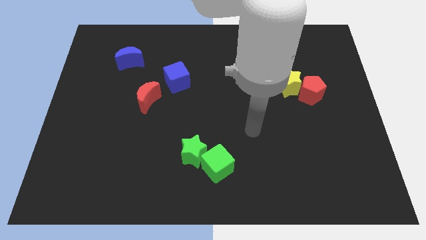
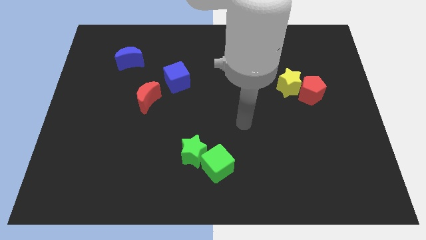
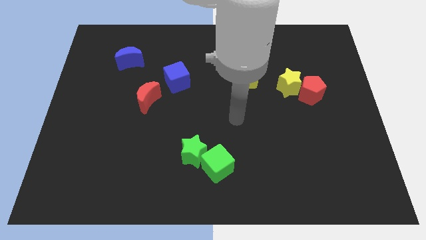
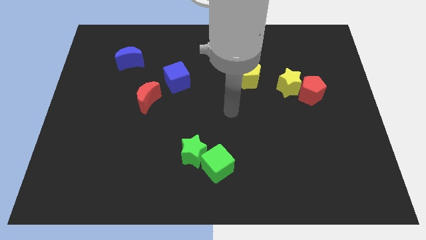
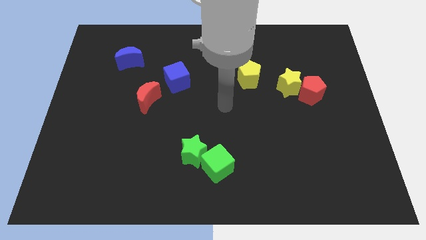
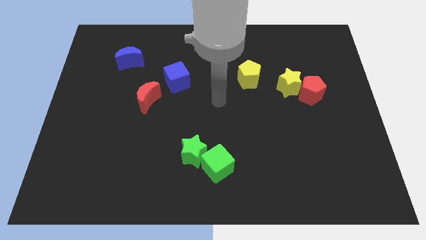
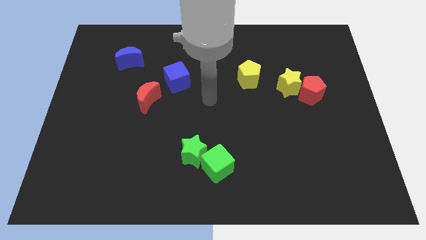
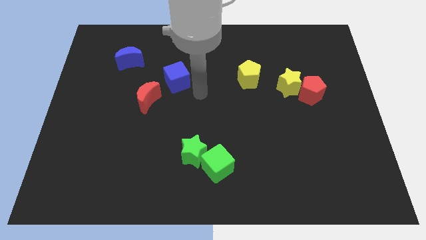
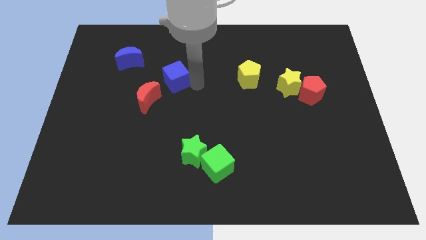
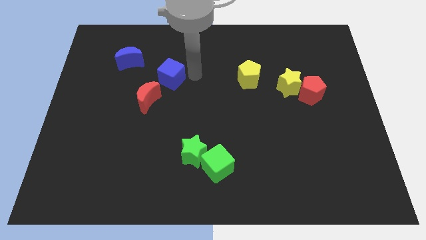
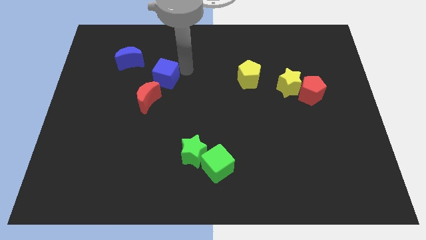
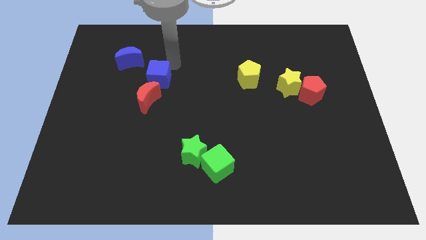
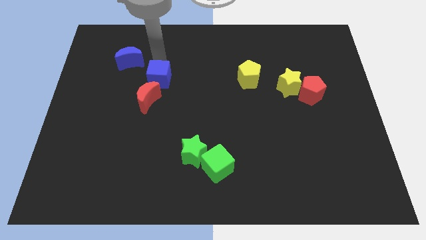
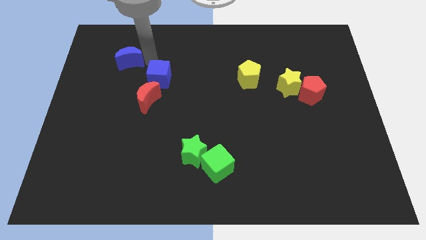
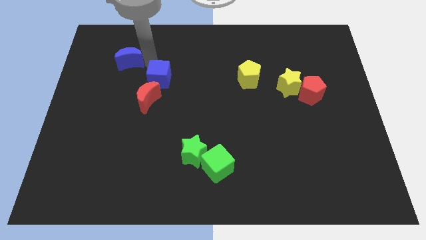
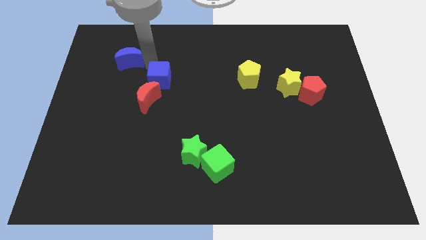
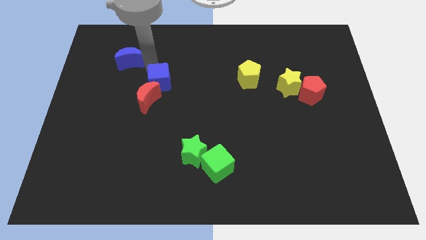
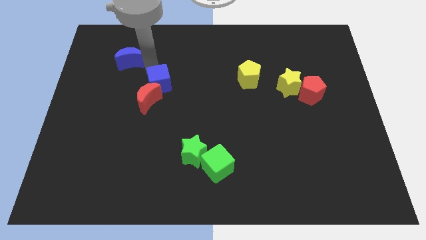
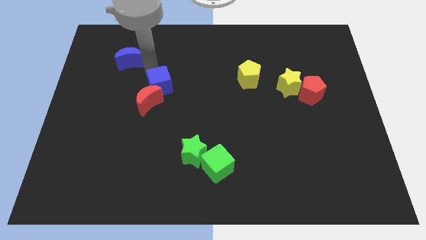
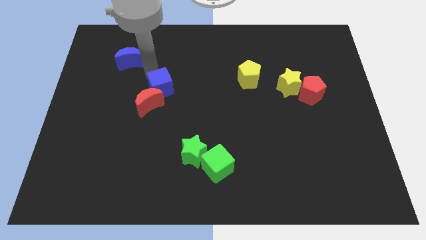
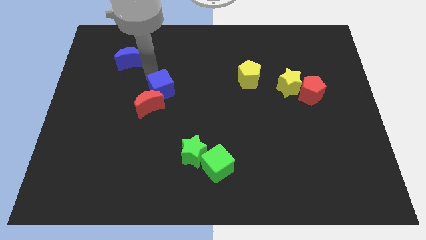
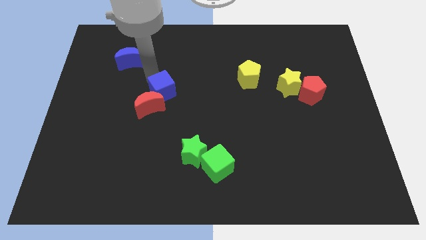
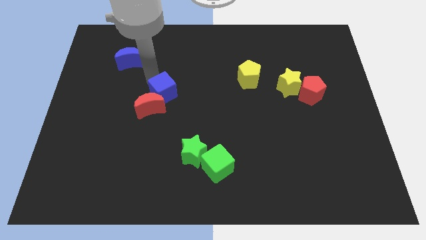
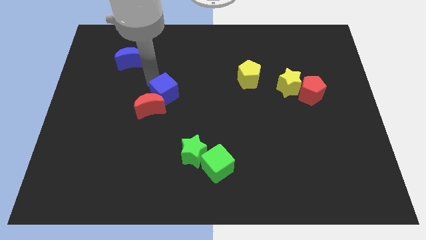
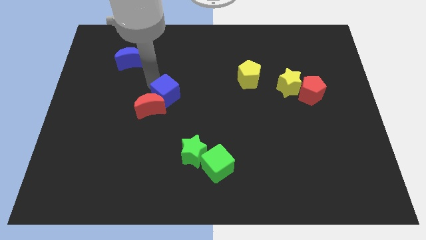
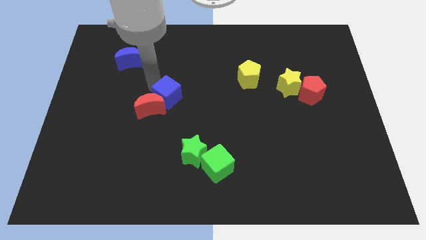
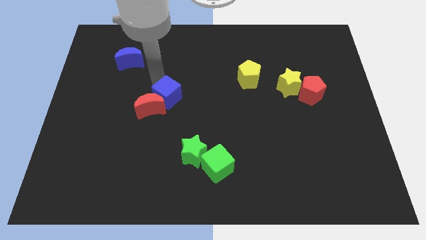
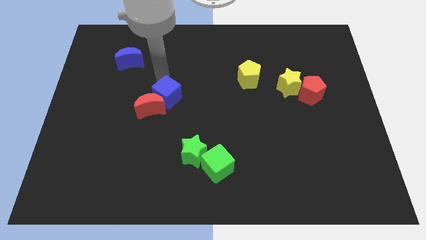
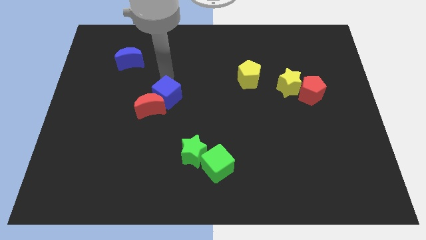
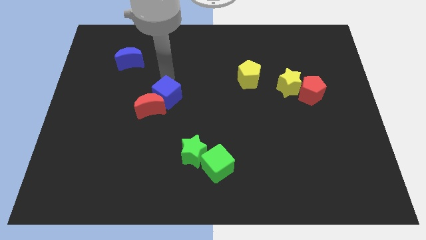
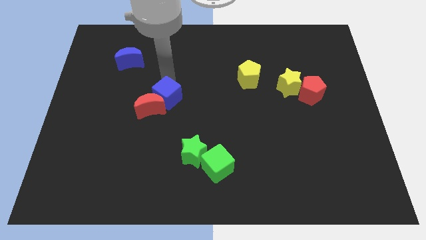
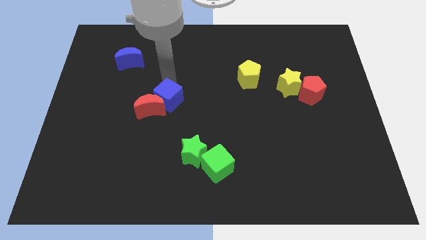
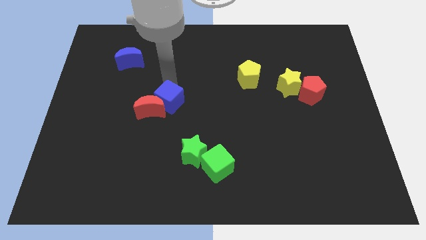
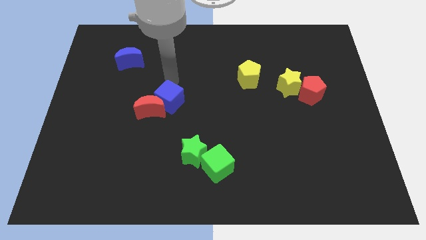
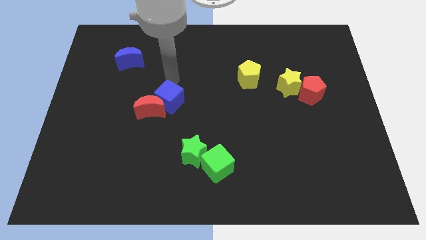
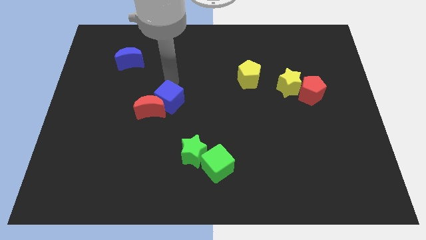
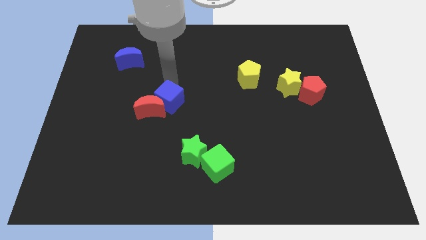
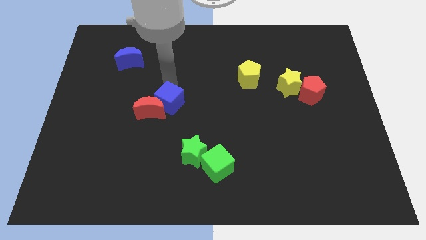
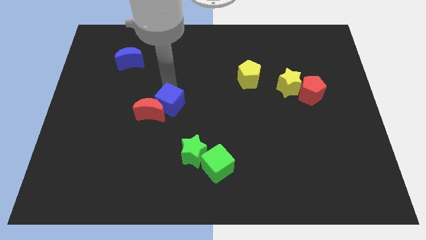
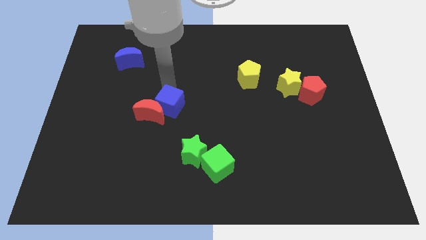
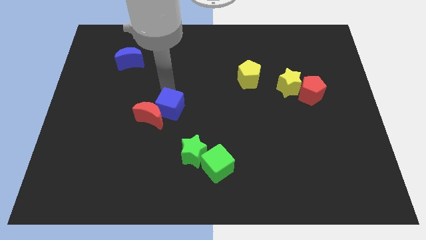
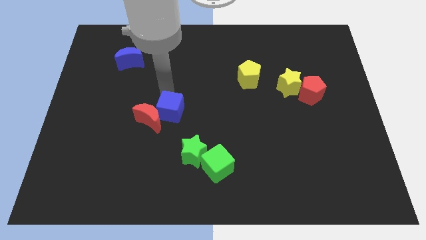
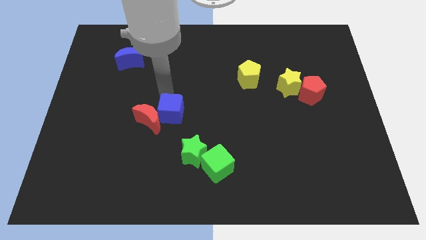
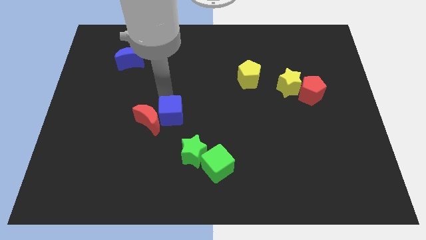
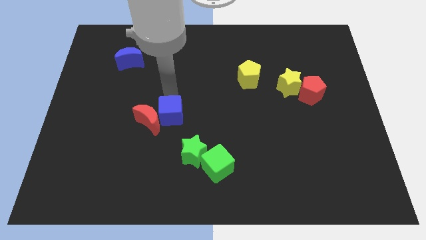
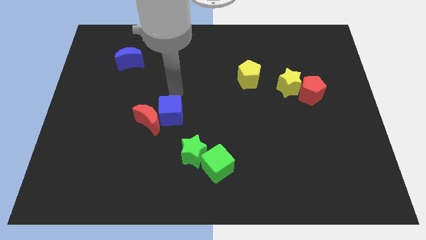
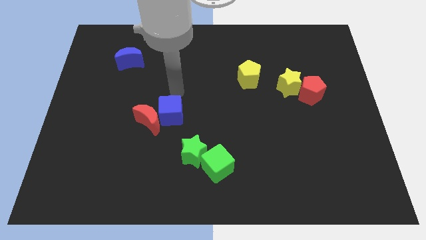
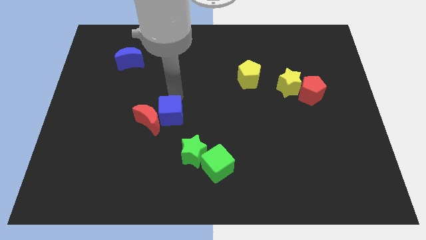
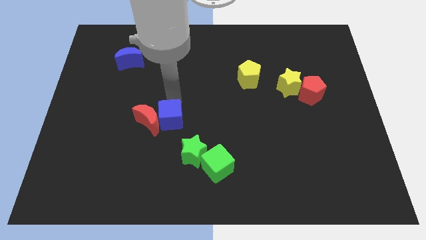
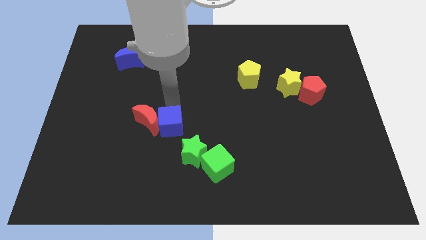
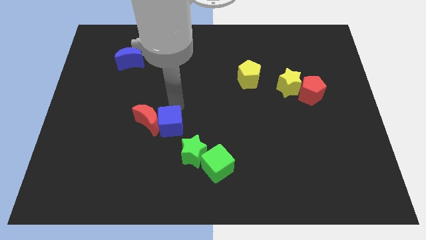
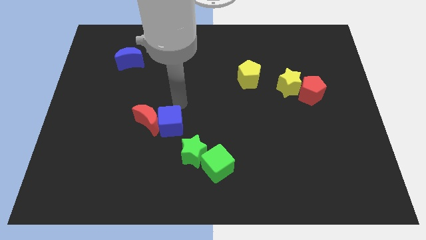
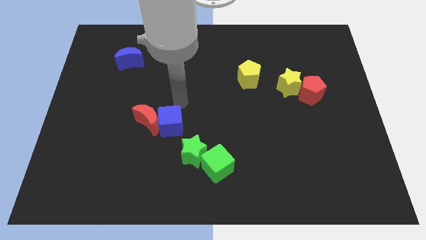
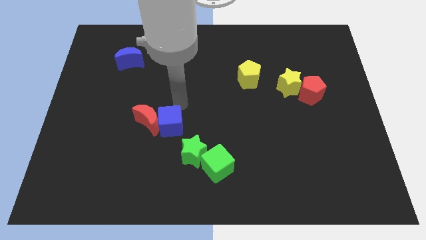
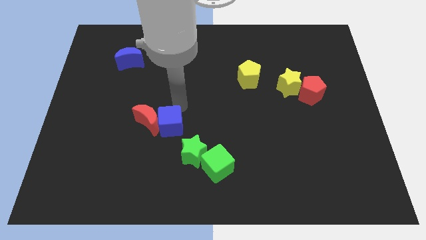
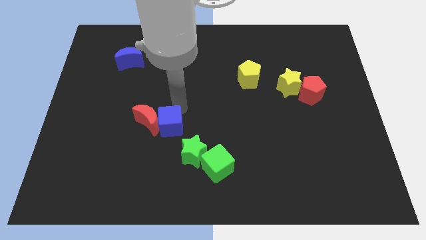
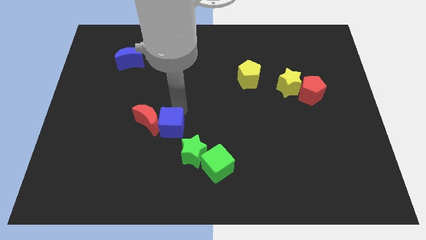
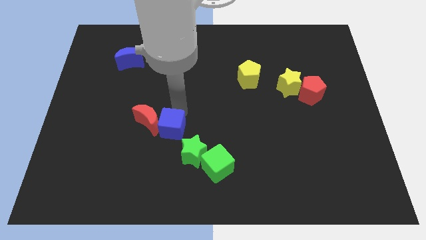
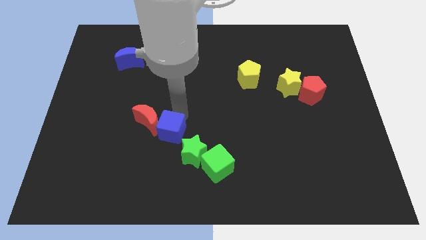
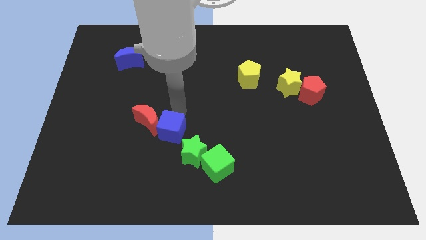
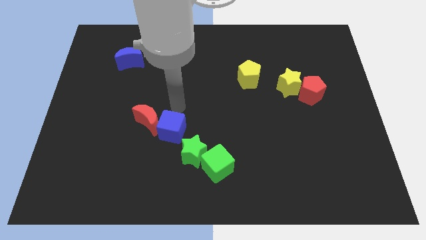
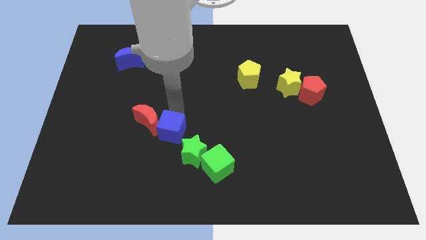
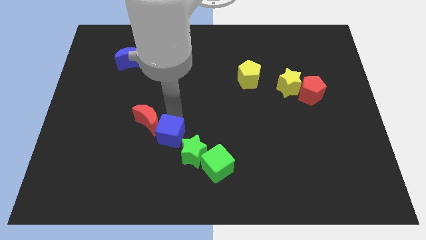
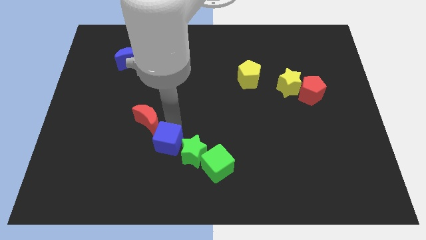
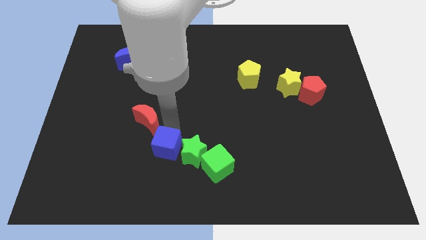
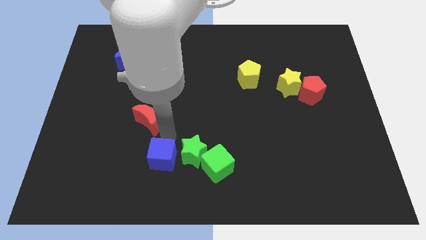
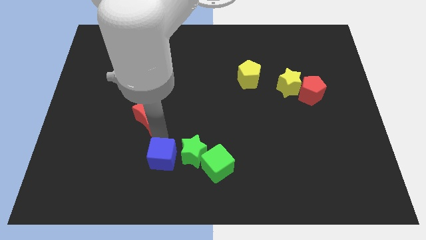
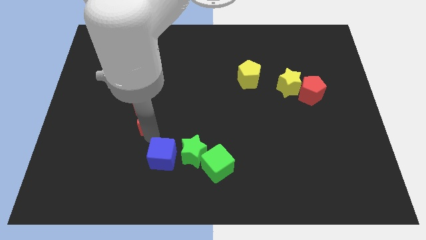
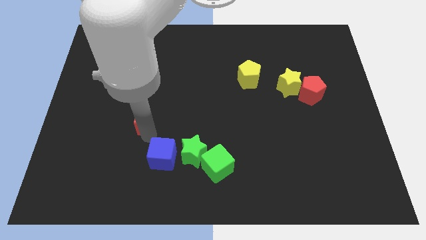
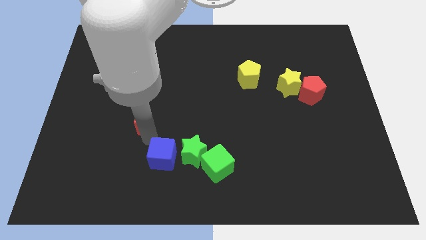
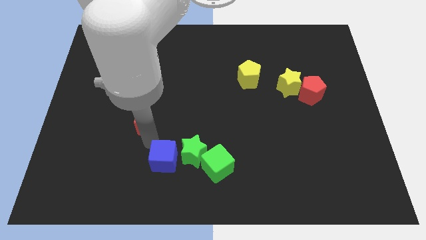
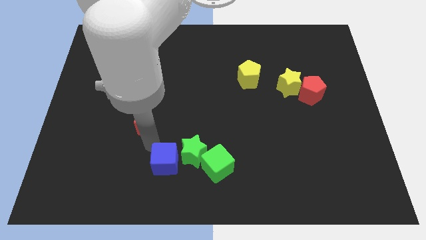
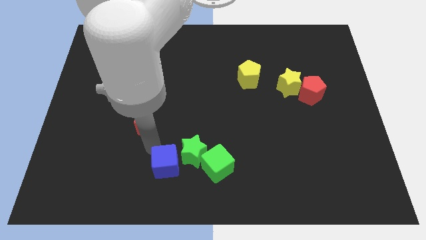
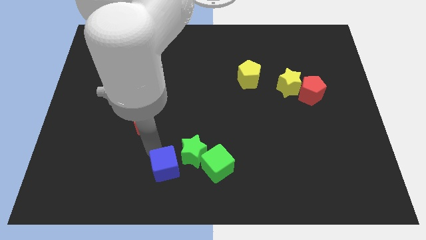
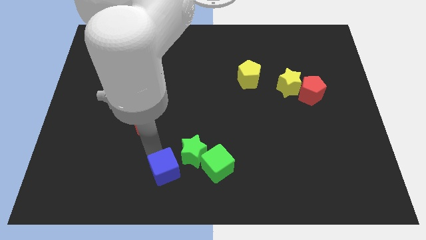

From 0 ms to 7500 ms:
move the blue cube to the bottom

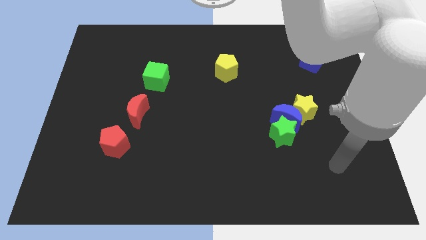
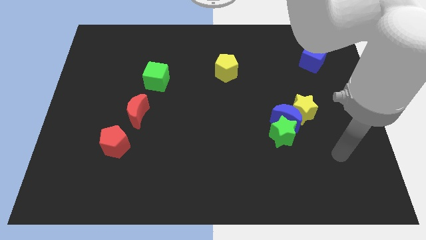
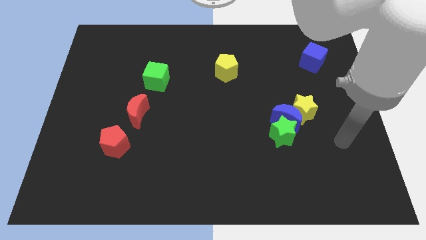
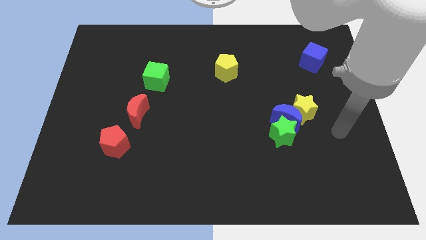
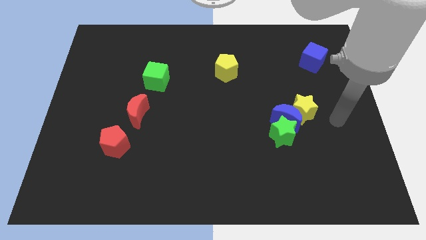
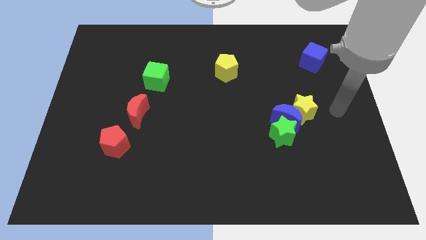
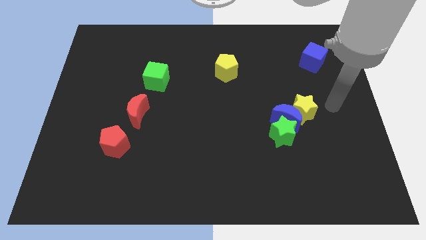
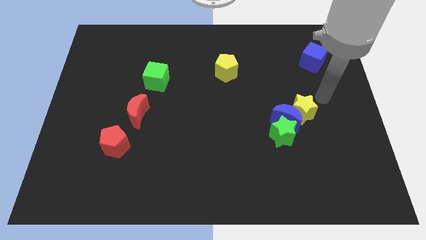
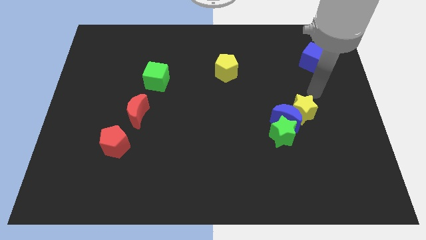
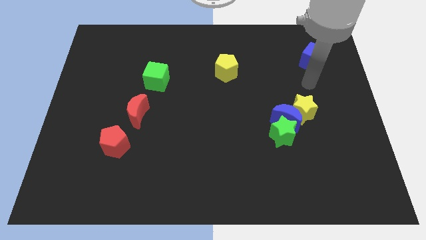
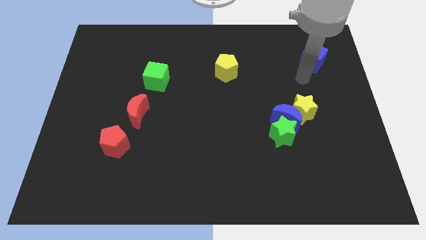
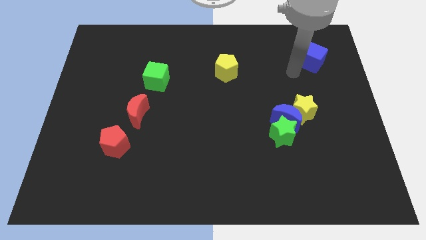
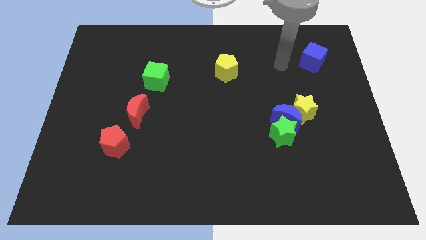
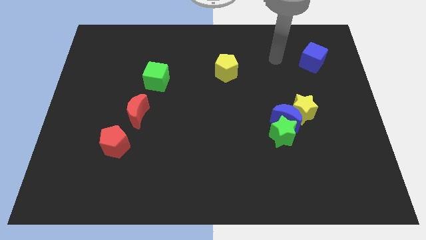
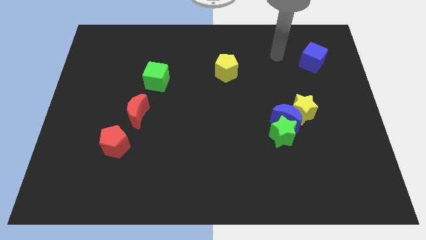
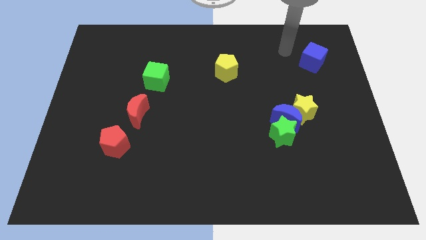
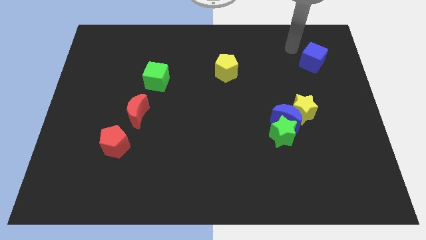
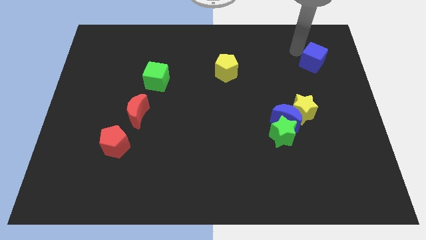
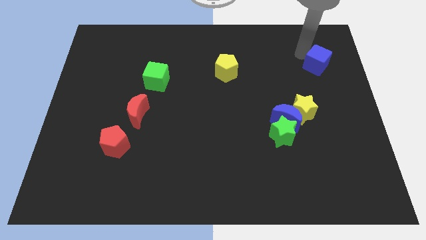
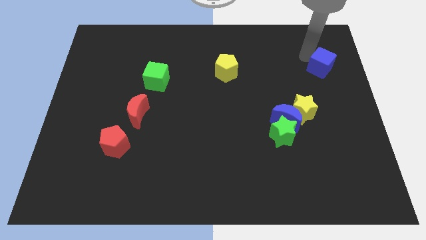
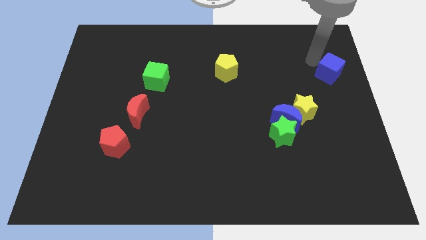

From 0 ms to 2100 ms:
slide the blue cube to the right side of the board
